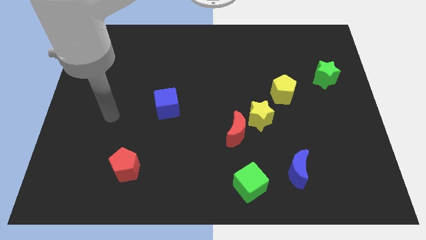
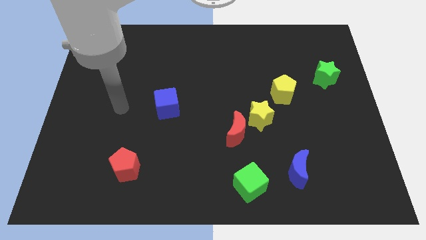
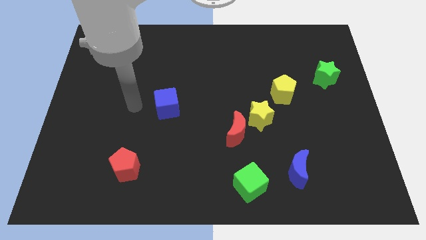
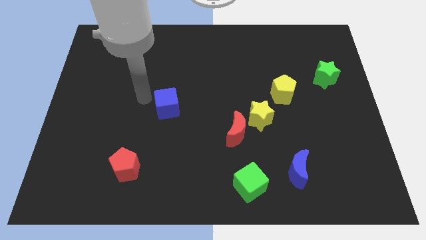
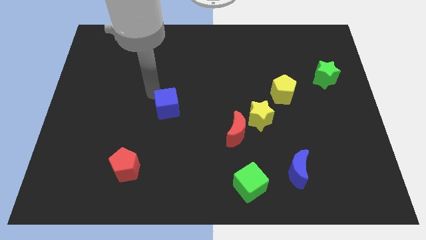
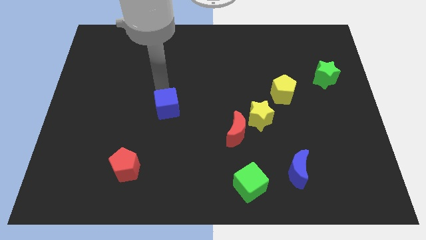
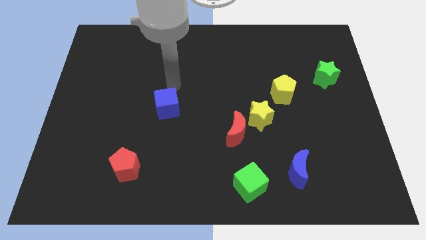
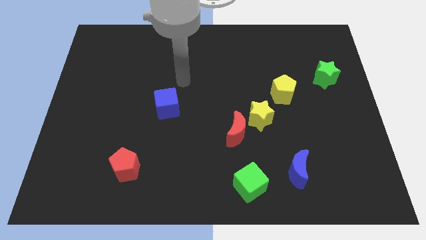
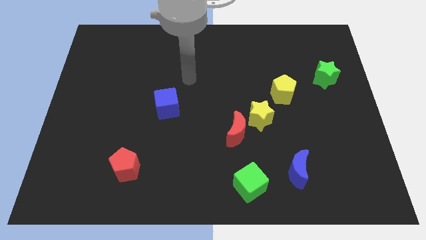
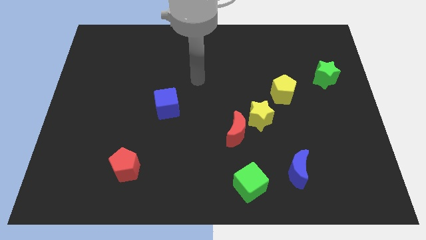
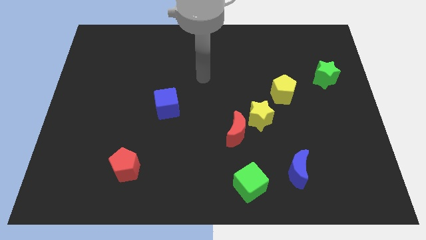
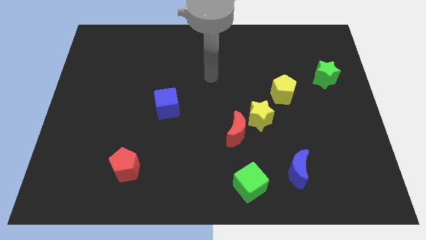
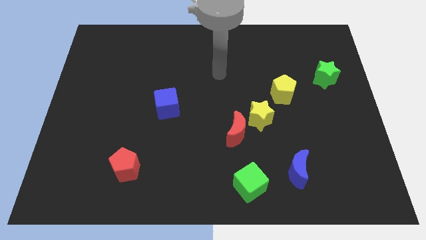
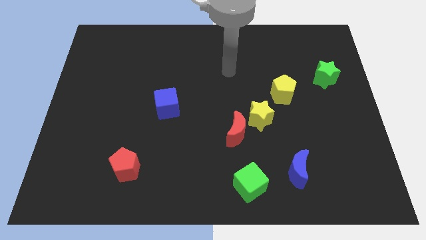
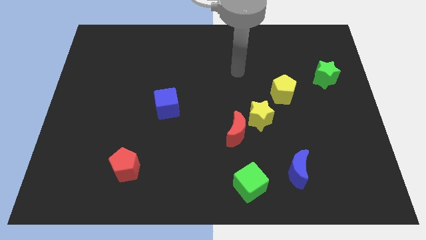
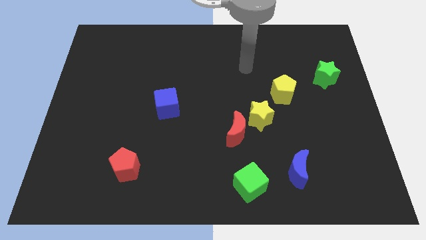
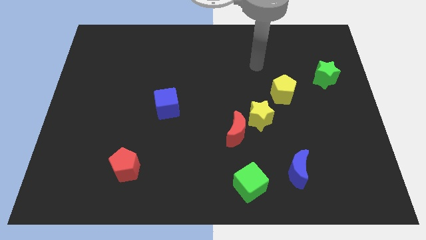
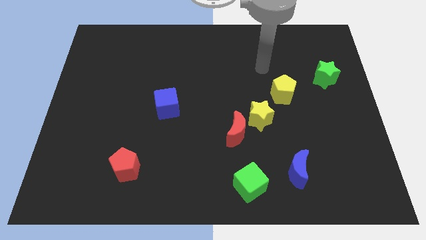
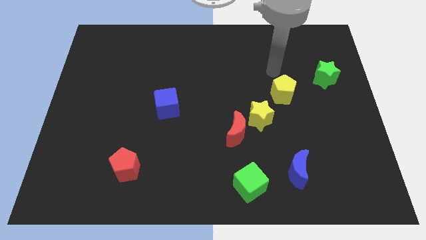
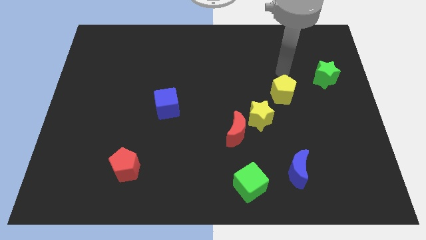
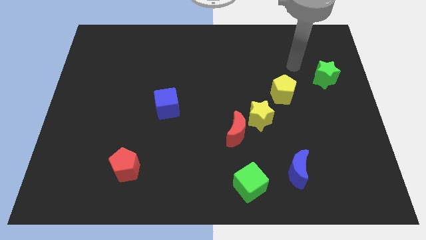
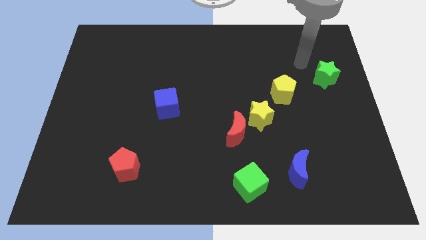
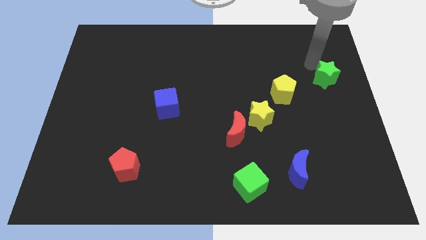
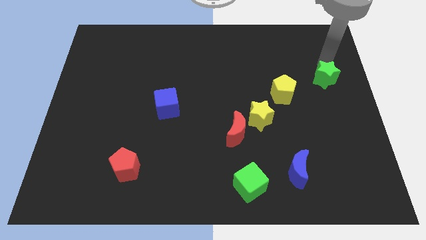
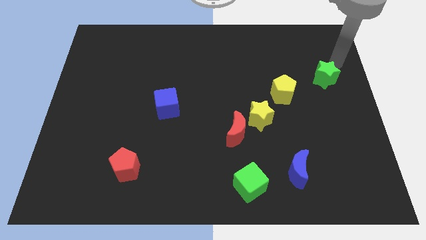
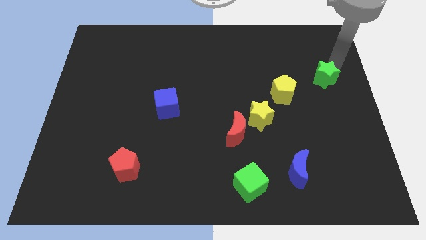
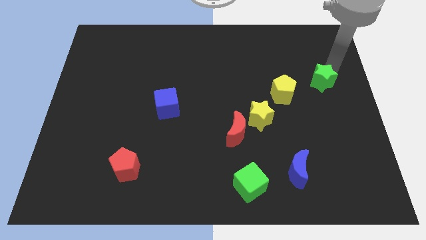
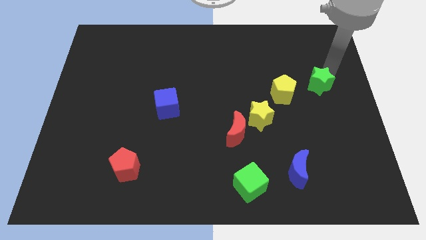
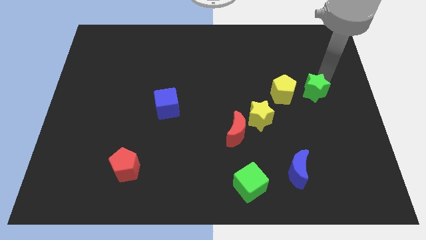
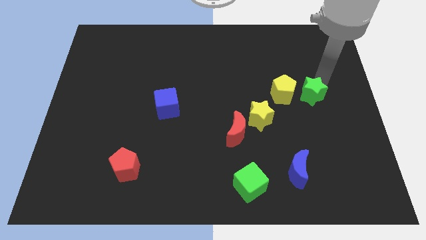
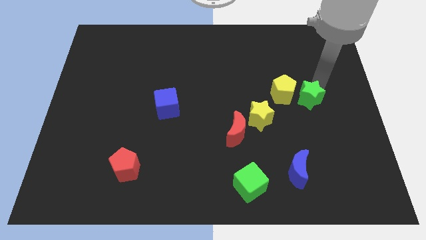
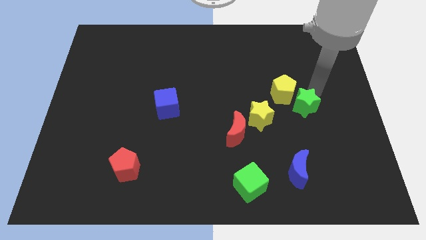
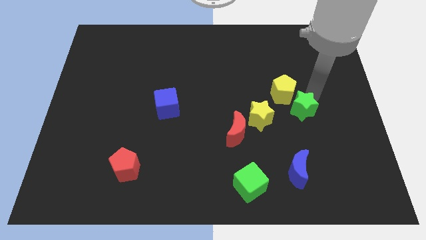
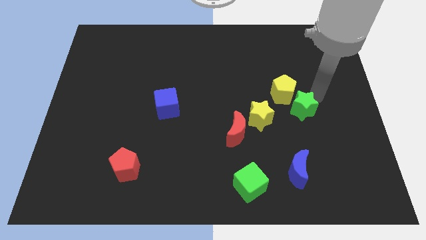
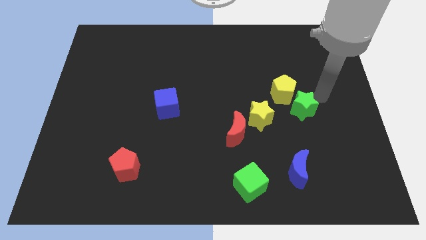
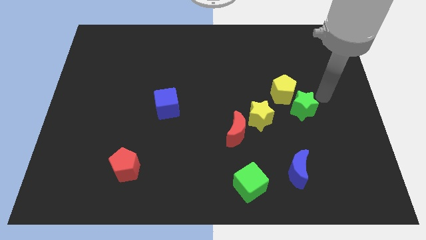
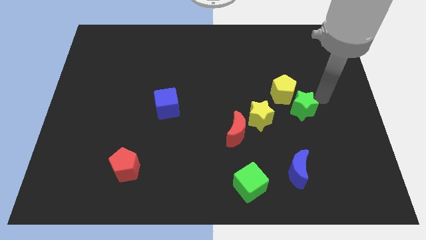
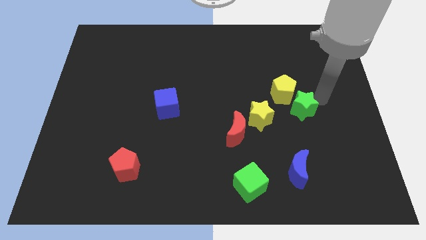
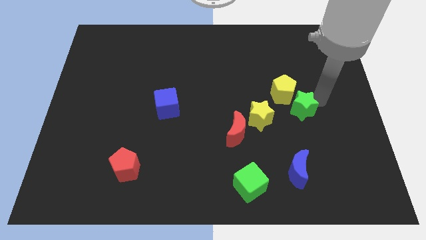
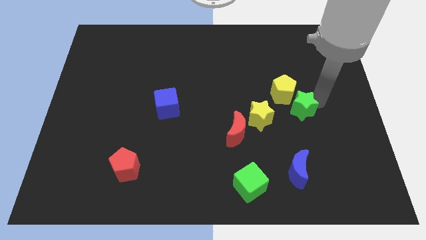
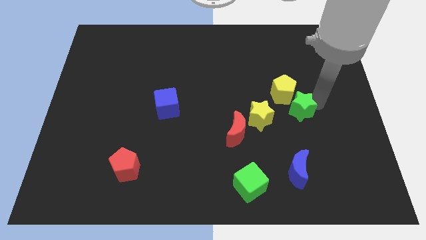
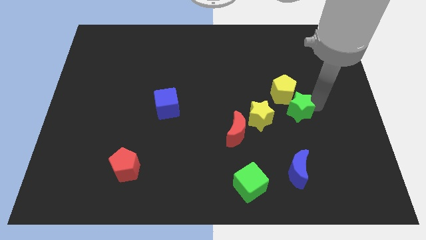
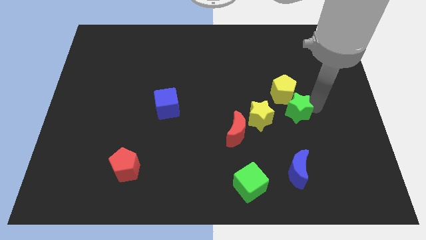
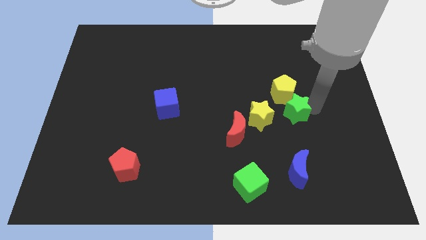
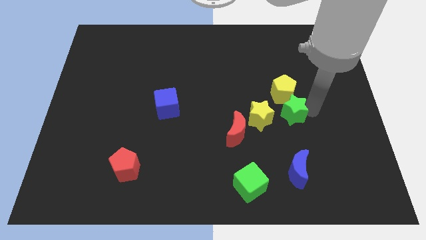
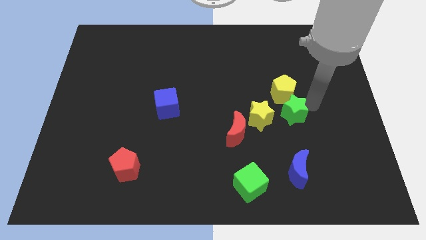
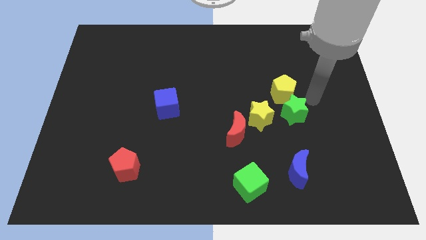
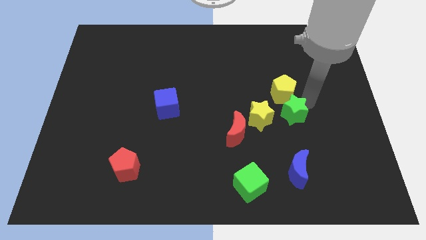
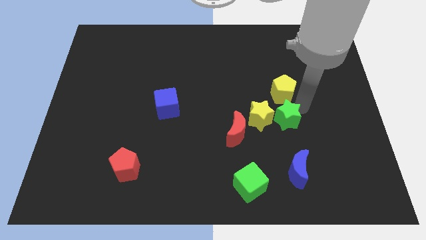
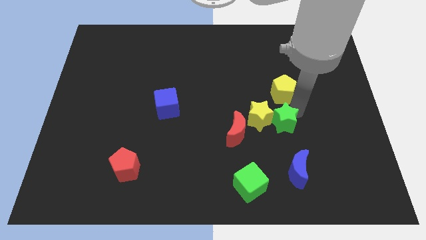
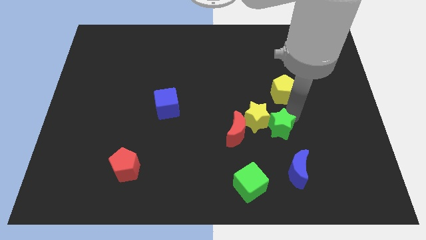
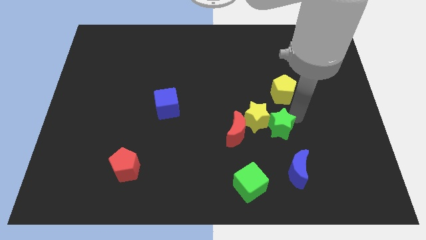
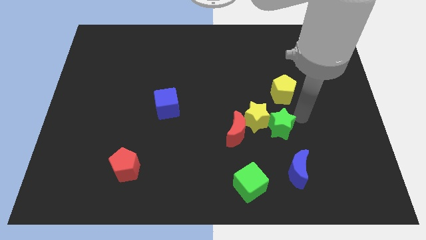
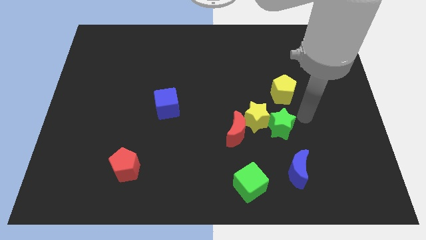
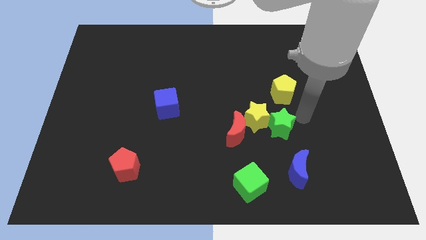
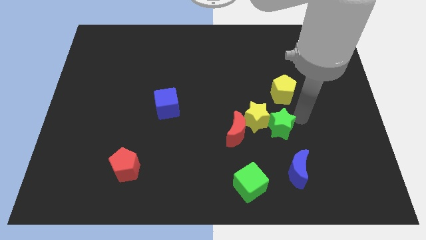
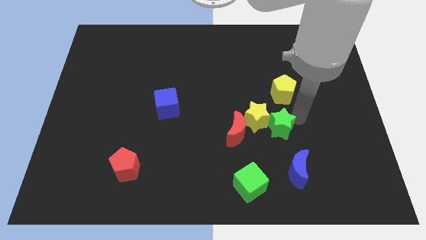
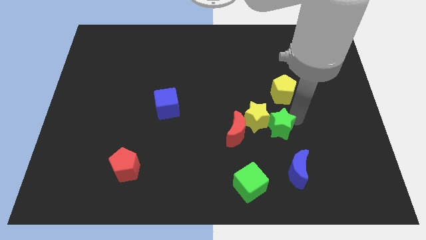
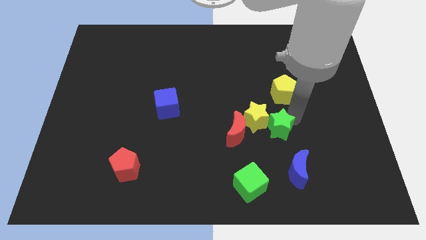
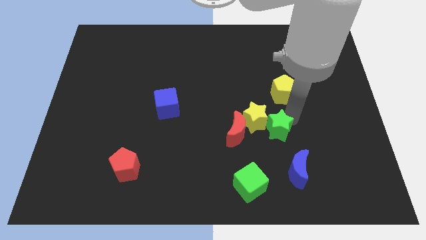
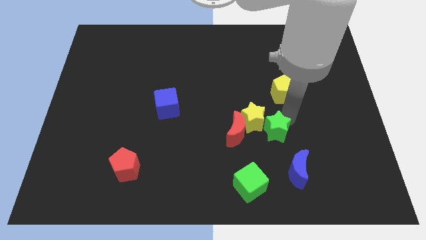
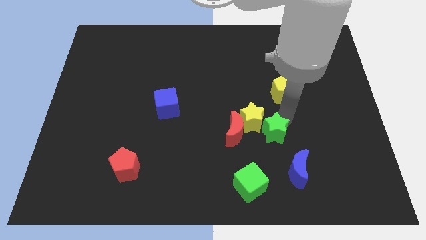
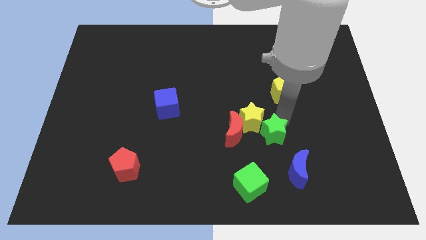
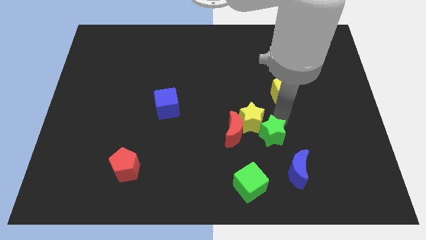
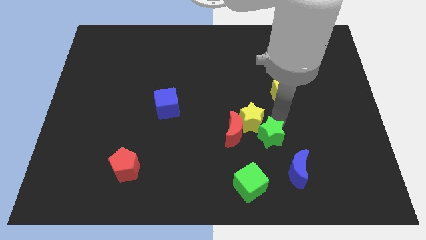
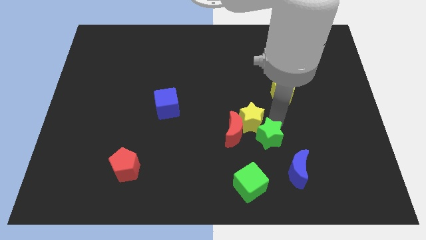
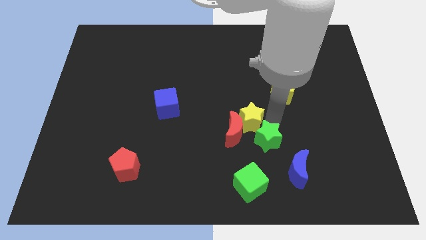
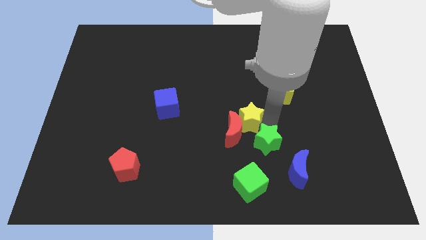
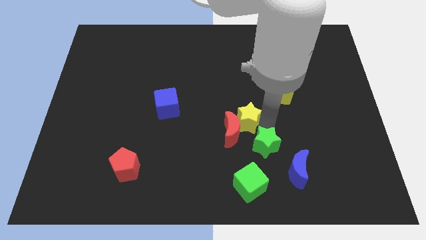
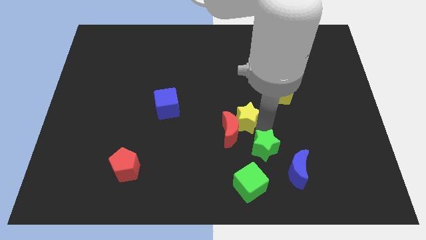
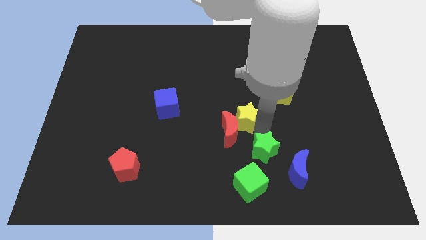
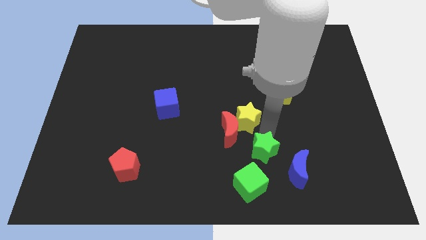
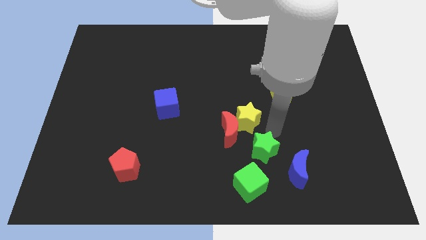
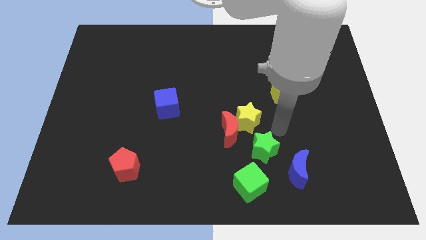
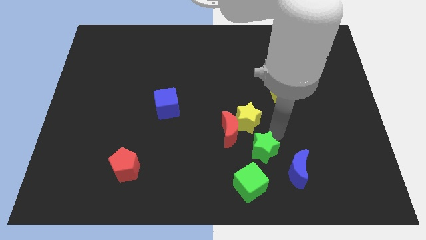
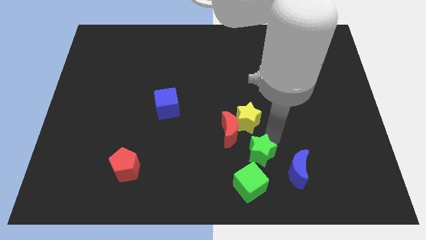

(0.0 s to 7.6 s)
slide the green star to the left side of the blue moon

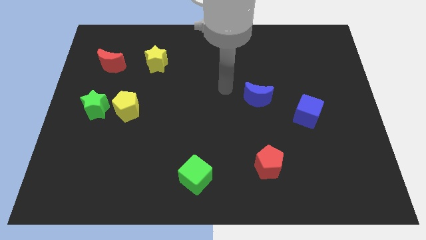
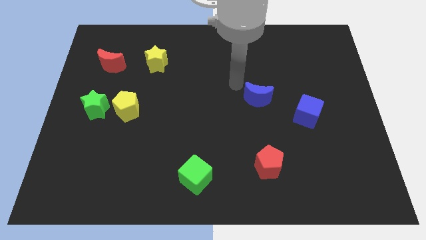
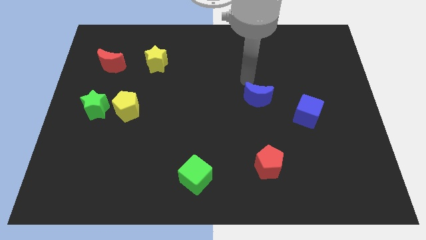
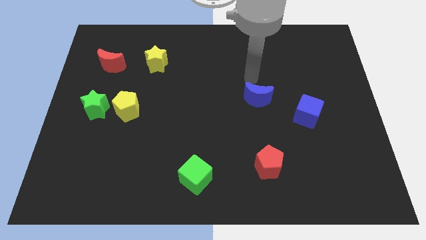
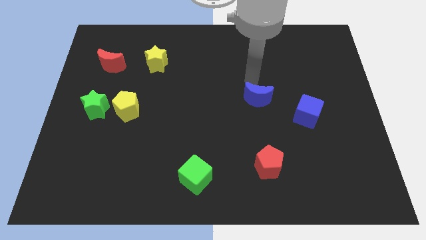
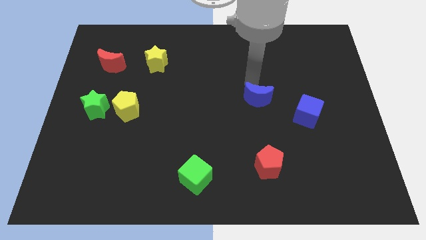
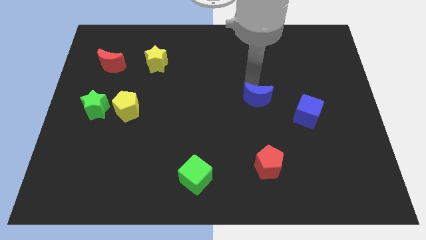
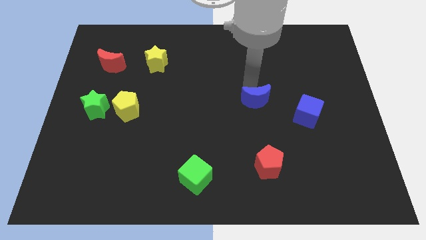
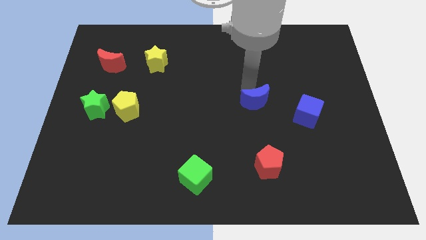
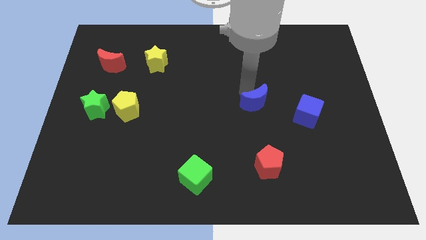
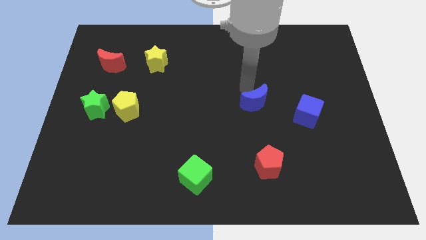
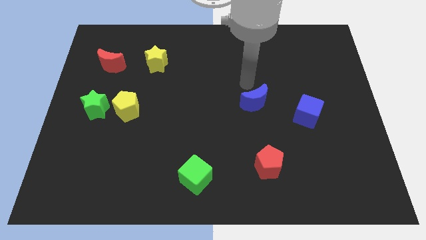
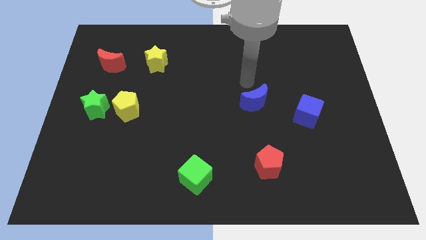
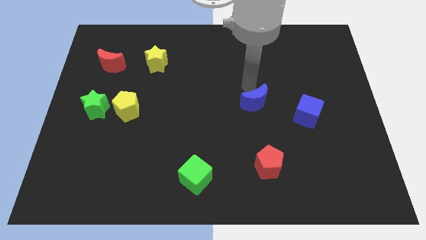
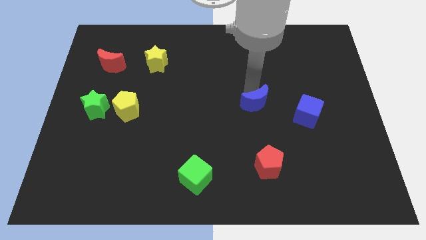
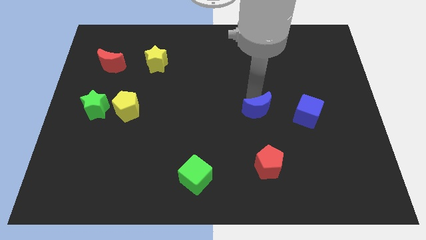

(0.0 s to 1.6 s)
push the blue moon to the top side of the red pentagon
